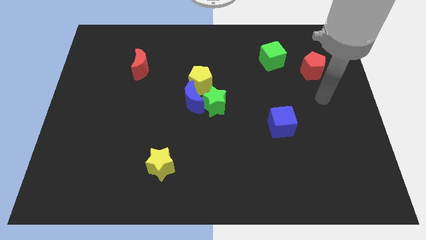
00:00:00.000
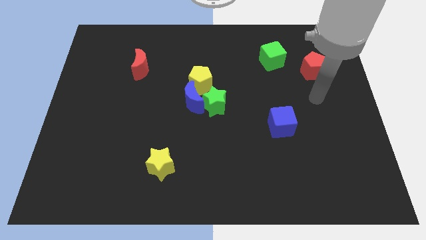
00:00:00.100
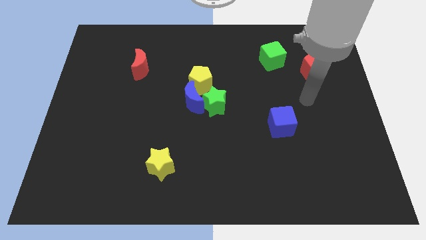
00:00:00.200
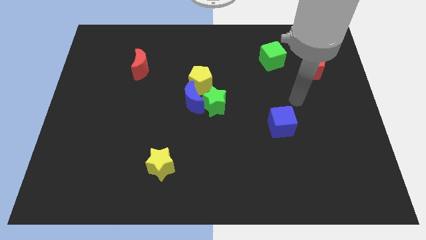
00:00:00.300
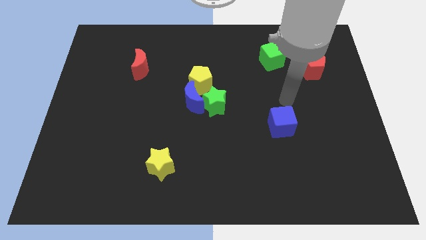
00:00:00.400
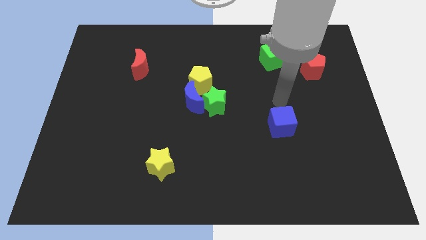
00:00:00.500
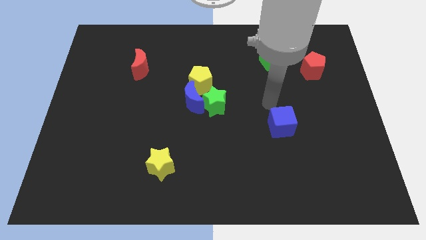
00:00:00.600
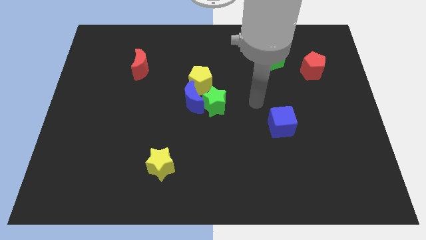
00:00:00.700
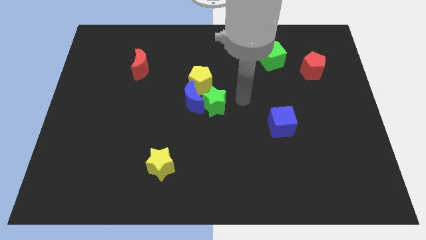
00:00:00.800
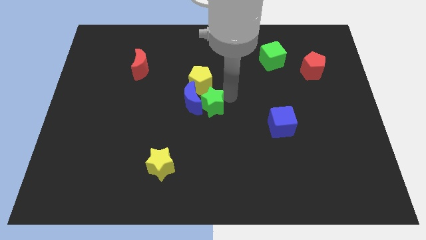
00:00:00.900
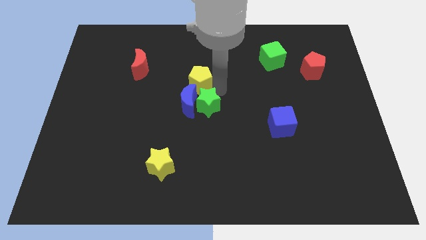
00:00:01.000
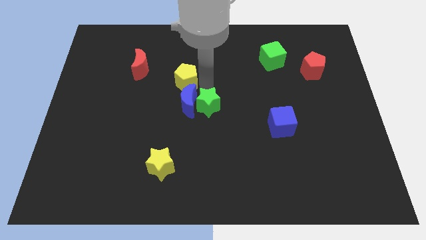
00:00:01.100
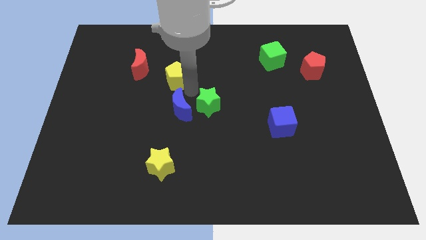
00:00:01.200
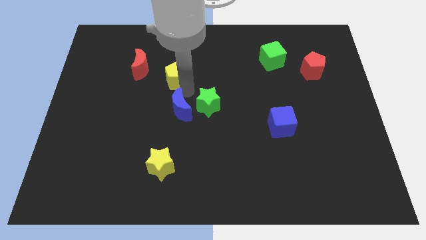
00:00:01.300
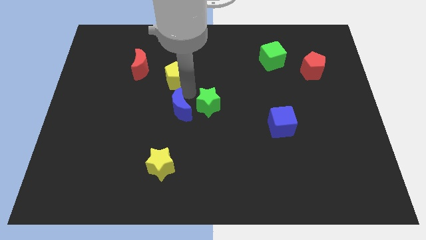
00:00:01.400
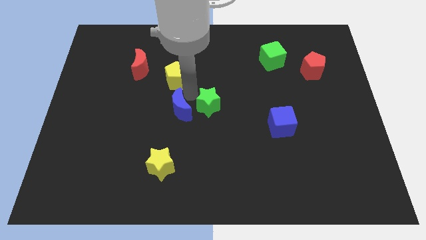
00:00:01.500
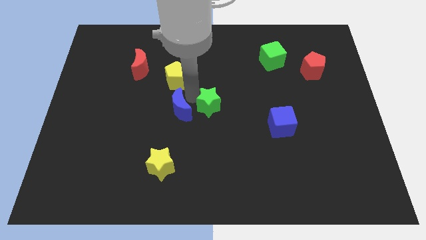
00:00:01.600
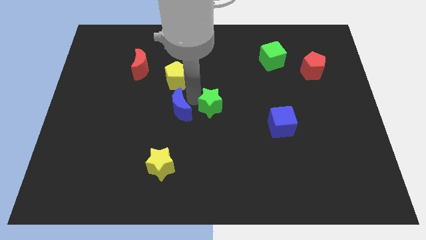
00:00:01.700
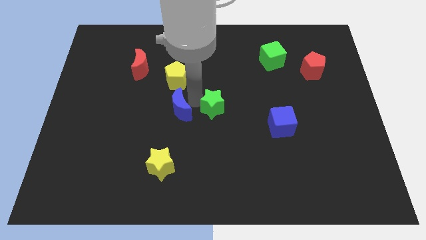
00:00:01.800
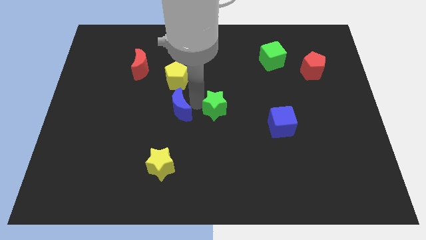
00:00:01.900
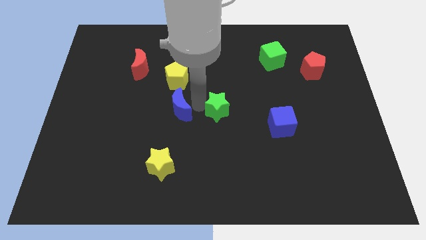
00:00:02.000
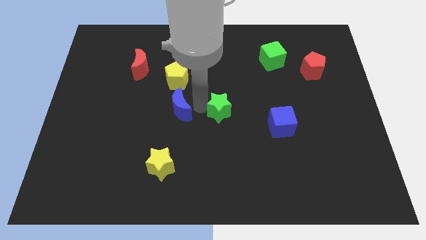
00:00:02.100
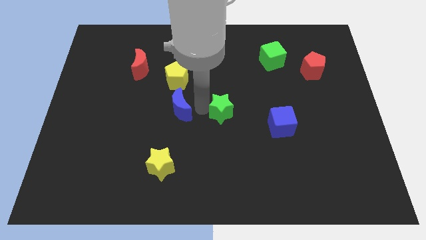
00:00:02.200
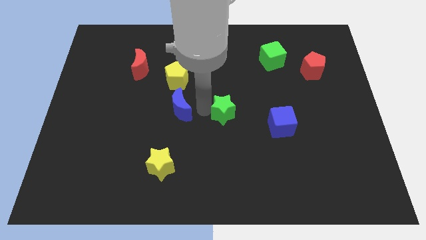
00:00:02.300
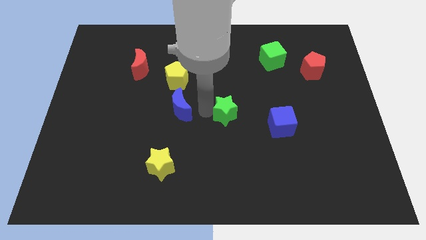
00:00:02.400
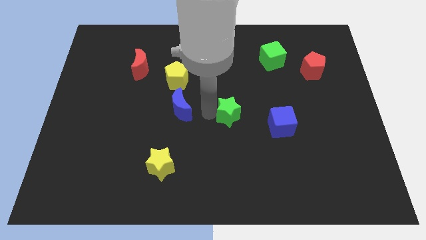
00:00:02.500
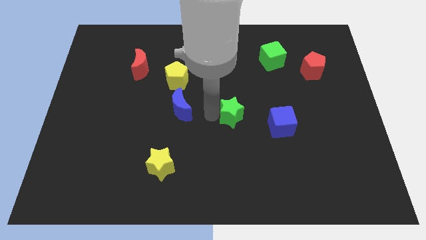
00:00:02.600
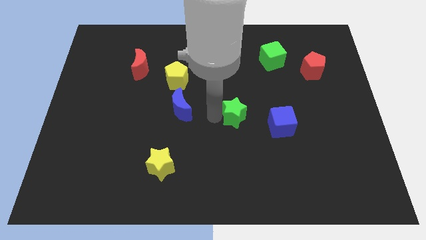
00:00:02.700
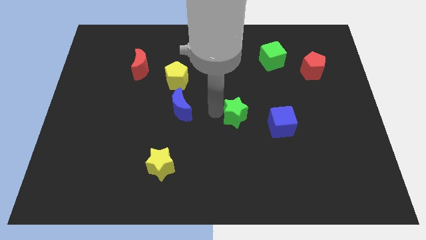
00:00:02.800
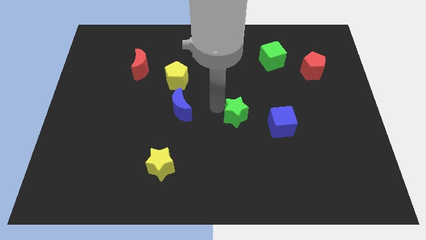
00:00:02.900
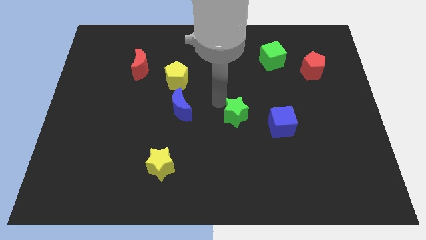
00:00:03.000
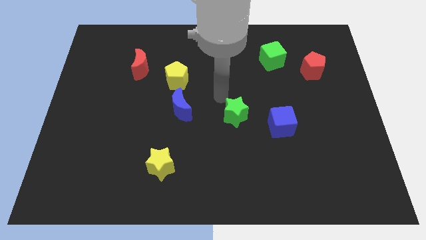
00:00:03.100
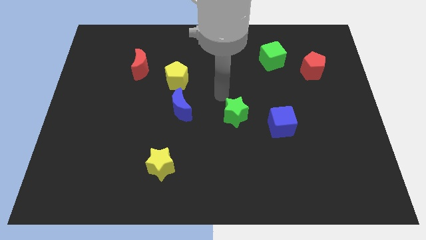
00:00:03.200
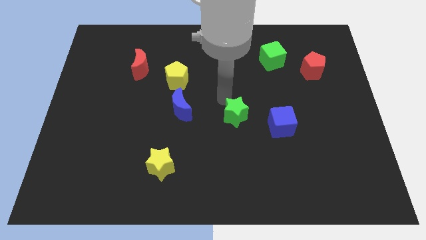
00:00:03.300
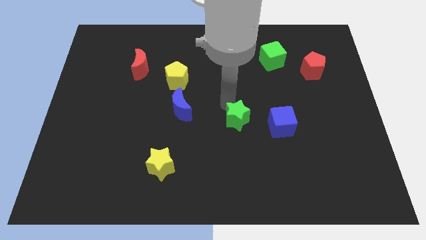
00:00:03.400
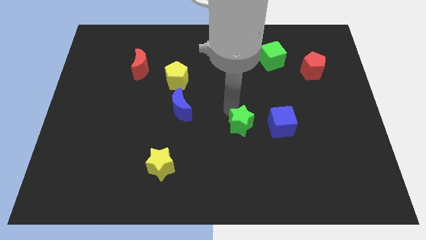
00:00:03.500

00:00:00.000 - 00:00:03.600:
slightly move the green star diagonally downwards and to the right

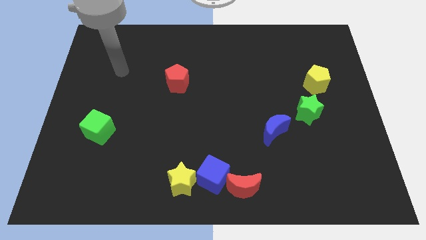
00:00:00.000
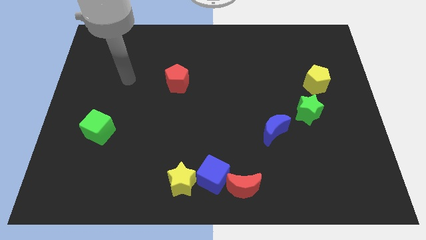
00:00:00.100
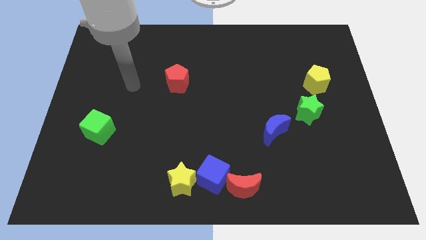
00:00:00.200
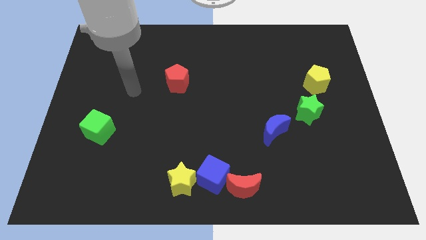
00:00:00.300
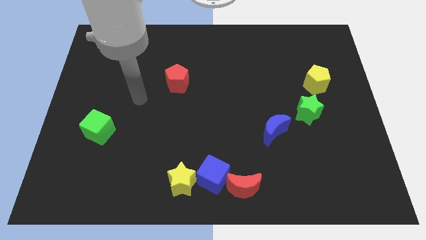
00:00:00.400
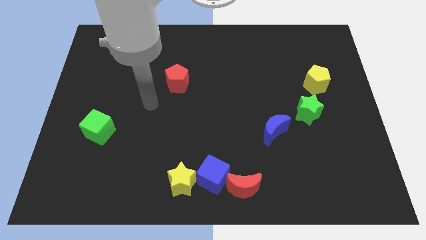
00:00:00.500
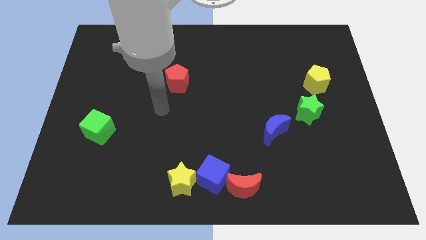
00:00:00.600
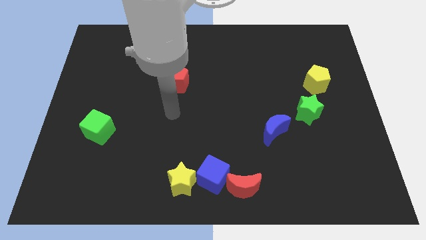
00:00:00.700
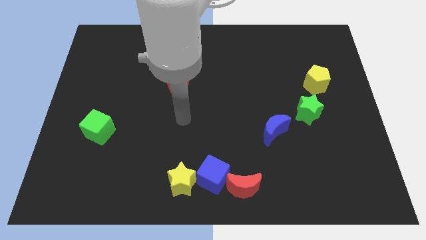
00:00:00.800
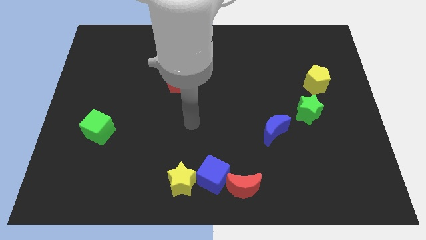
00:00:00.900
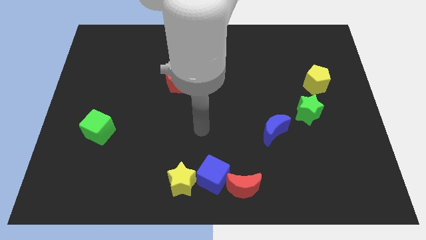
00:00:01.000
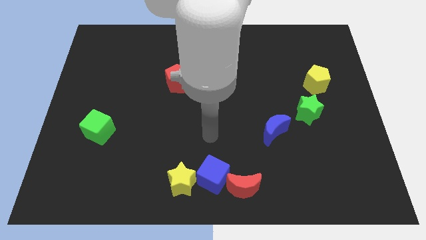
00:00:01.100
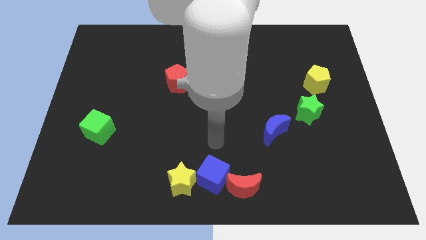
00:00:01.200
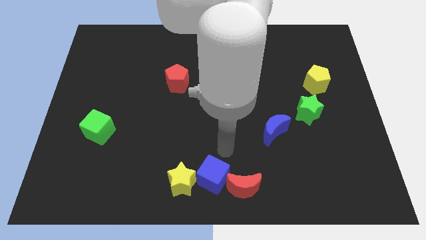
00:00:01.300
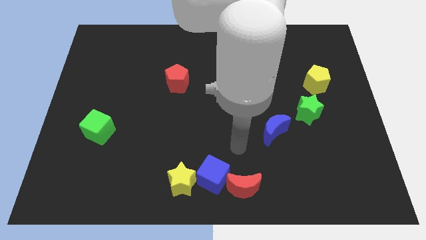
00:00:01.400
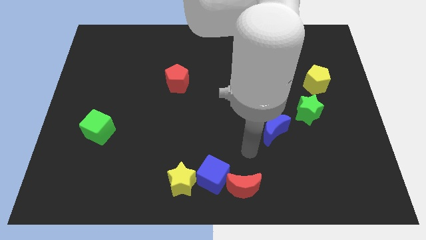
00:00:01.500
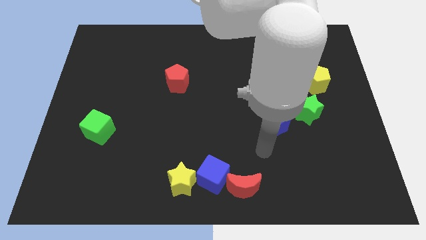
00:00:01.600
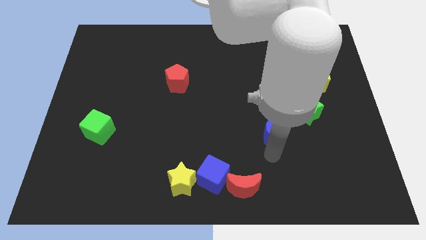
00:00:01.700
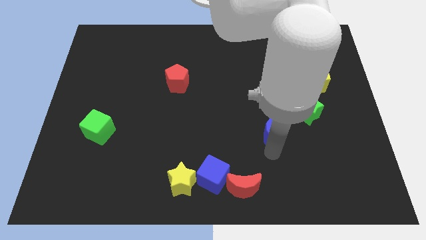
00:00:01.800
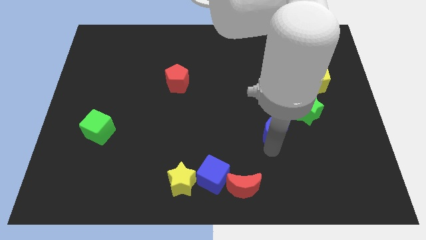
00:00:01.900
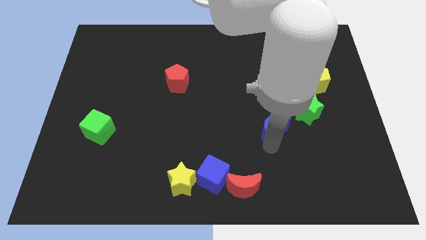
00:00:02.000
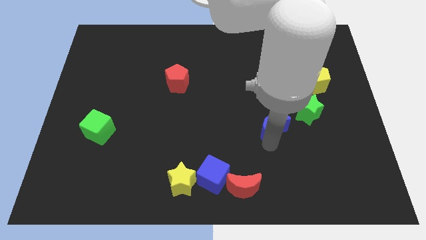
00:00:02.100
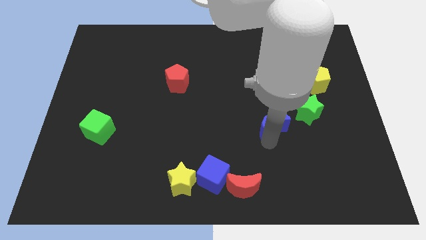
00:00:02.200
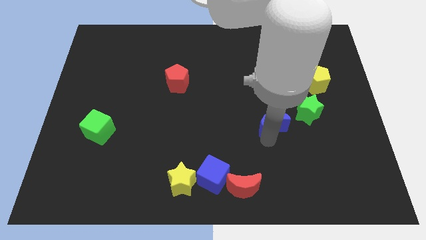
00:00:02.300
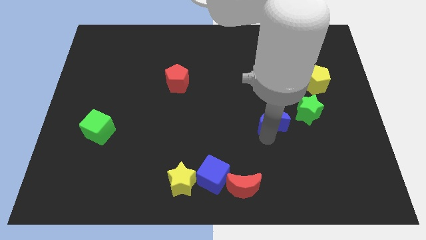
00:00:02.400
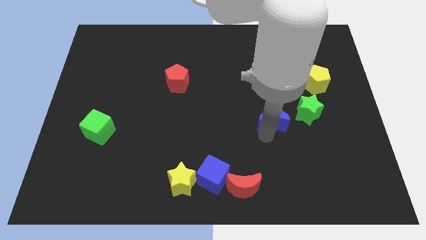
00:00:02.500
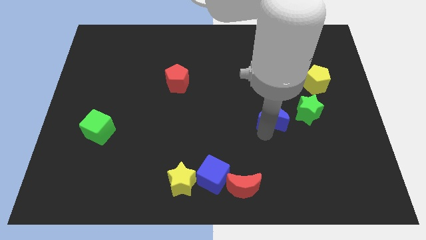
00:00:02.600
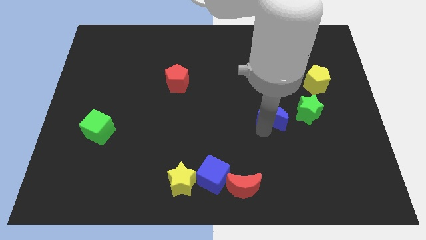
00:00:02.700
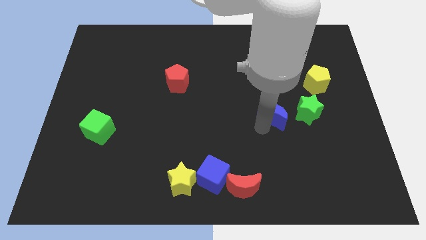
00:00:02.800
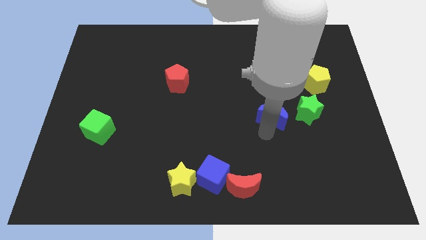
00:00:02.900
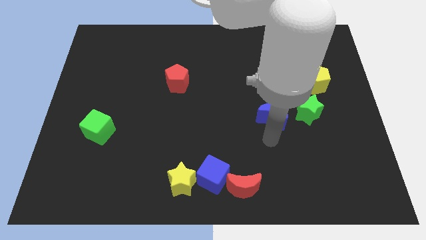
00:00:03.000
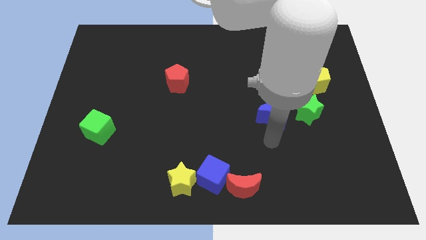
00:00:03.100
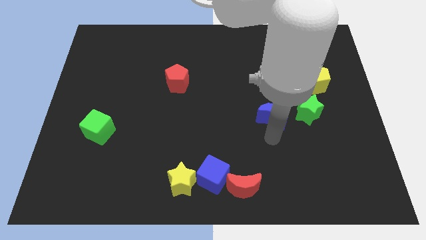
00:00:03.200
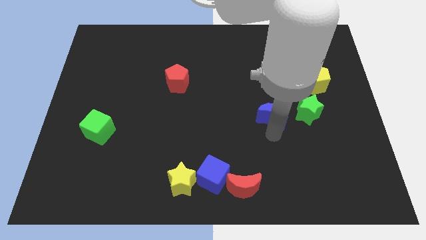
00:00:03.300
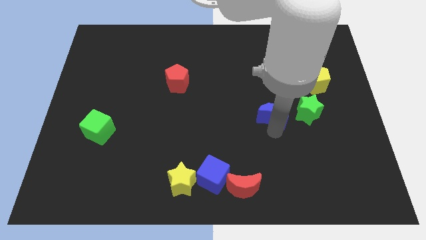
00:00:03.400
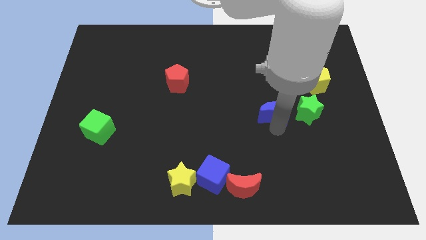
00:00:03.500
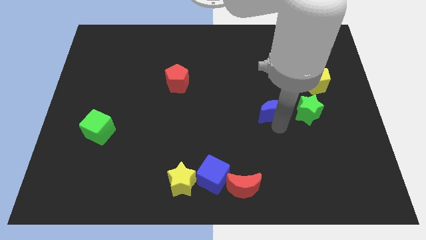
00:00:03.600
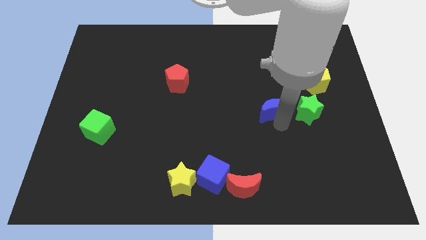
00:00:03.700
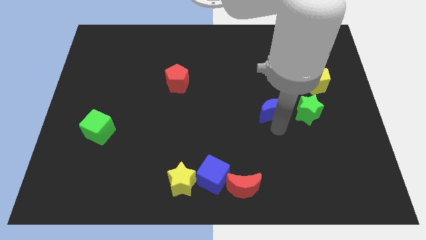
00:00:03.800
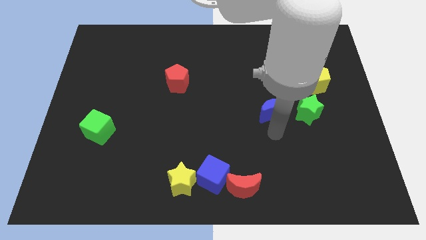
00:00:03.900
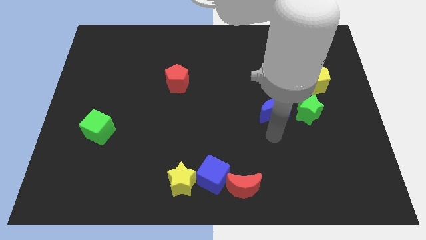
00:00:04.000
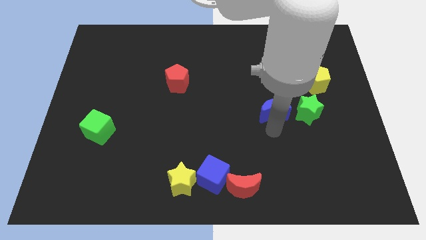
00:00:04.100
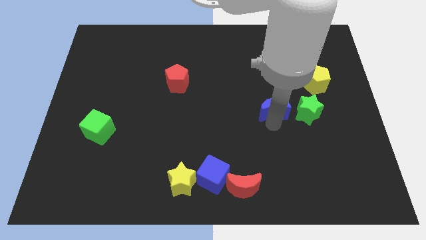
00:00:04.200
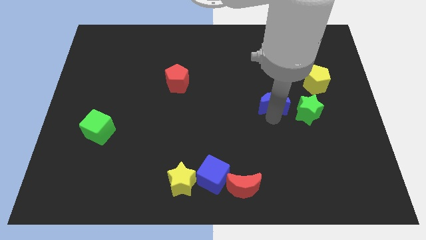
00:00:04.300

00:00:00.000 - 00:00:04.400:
slightly slide the blue moon up

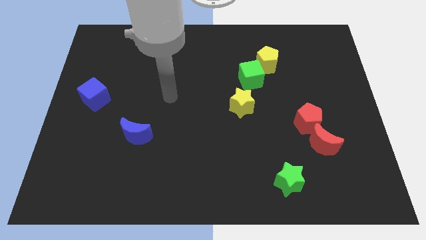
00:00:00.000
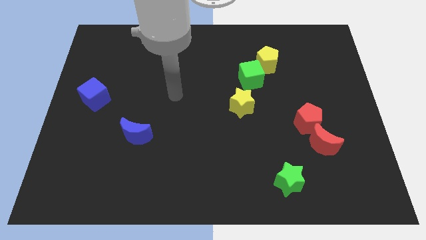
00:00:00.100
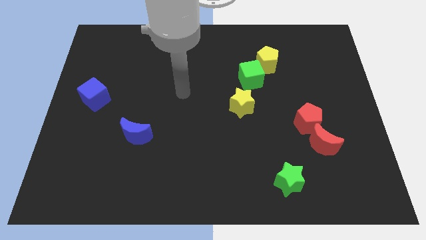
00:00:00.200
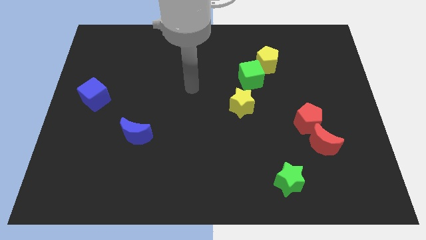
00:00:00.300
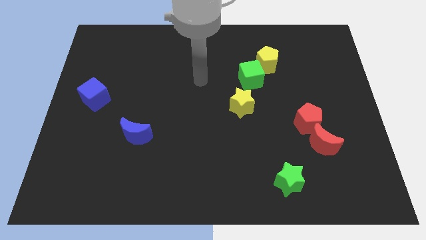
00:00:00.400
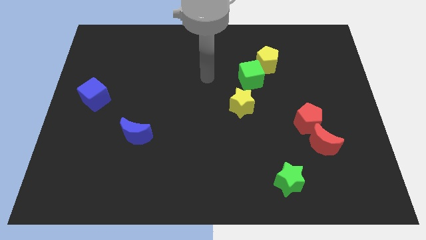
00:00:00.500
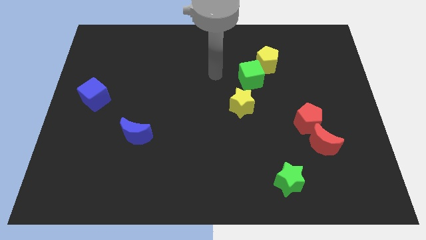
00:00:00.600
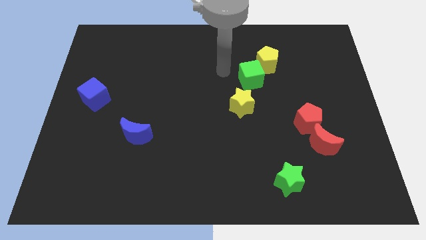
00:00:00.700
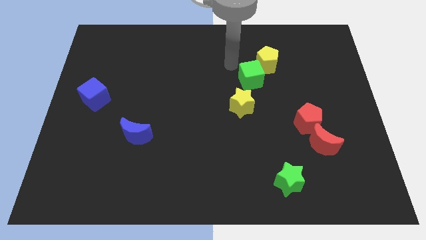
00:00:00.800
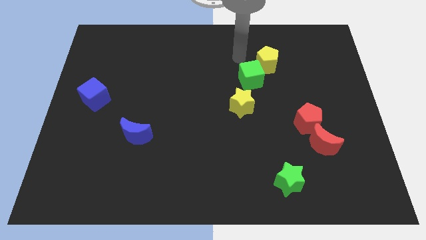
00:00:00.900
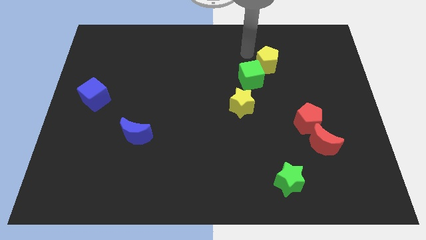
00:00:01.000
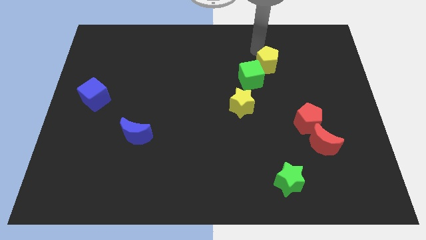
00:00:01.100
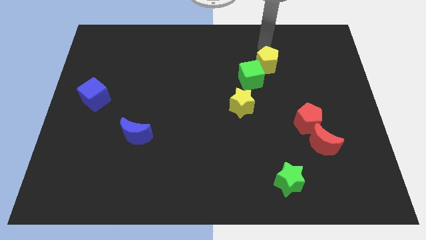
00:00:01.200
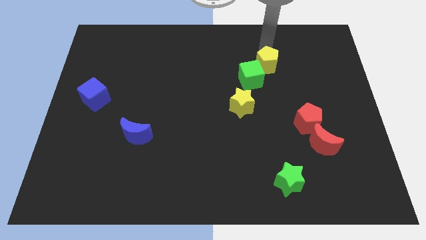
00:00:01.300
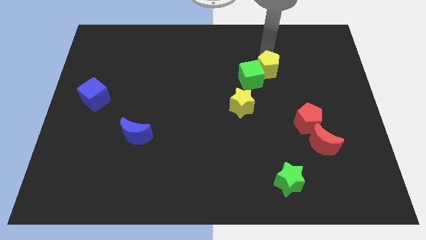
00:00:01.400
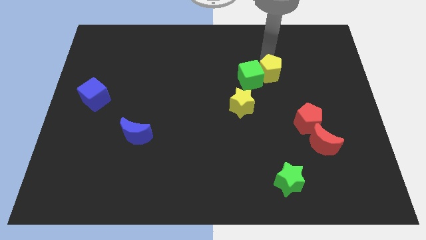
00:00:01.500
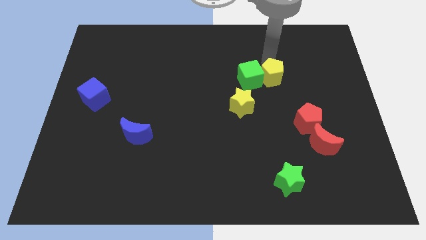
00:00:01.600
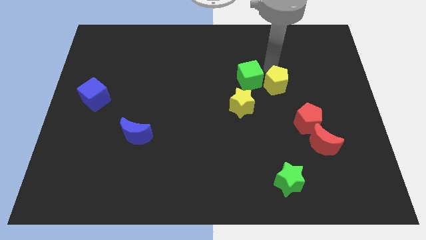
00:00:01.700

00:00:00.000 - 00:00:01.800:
slide the yellow pentagon a little downwards
